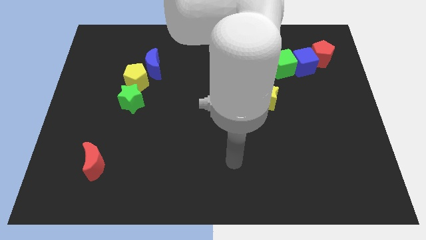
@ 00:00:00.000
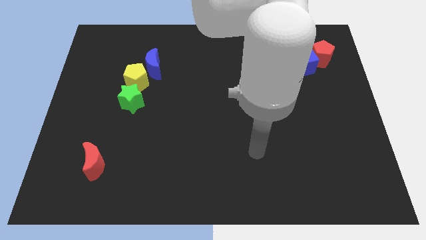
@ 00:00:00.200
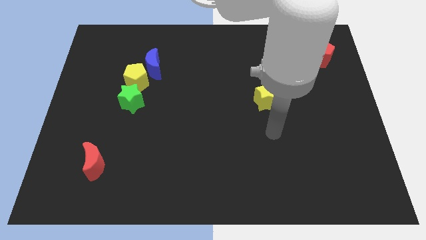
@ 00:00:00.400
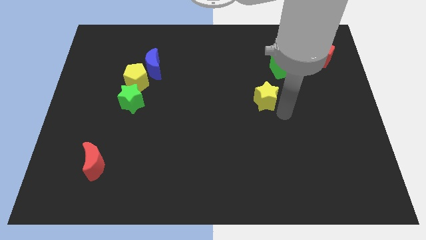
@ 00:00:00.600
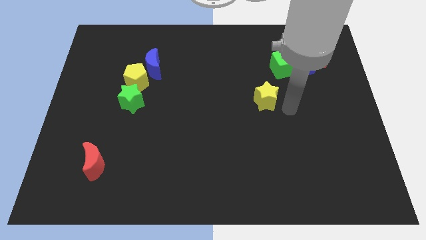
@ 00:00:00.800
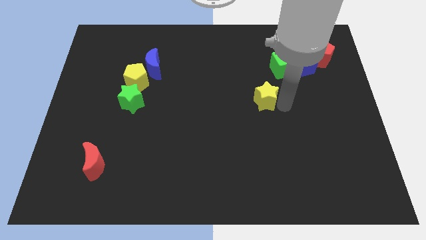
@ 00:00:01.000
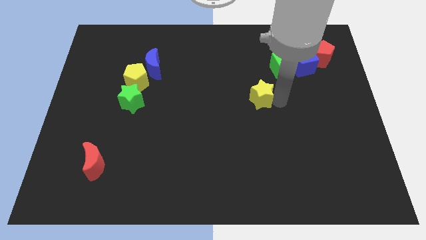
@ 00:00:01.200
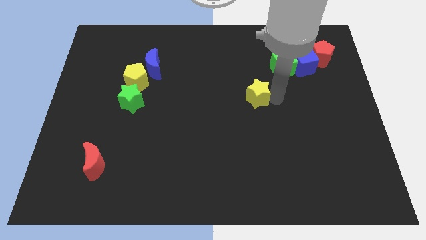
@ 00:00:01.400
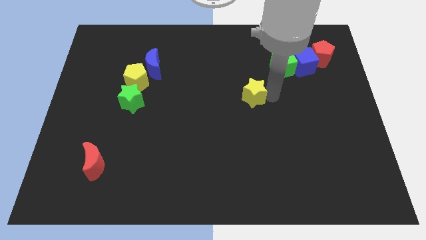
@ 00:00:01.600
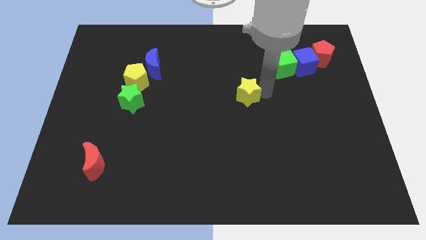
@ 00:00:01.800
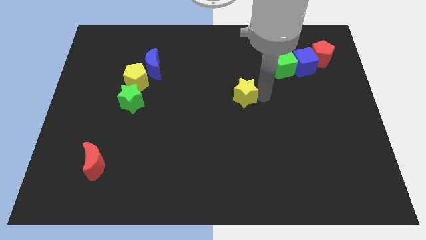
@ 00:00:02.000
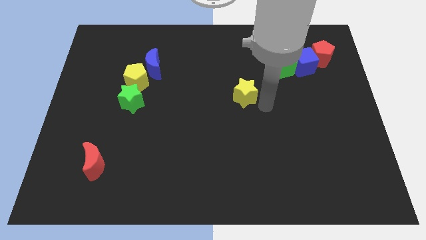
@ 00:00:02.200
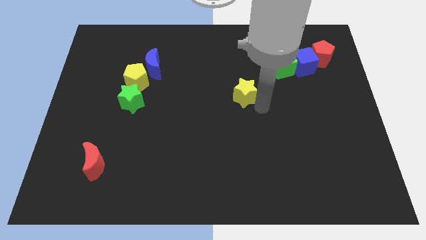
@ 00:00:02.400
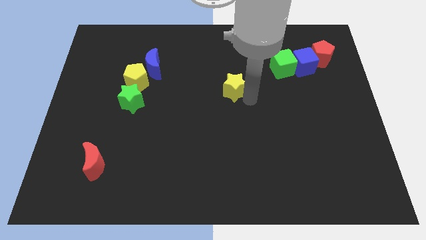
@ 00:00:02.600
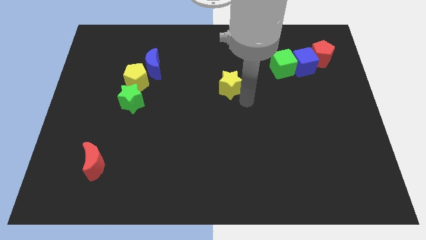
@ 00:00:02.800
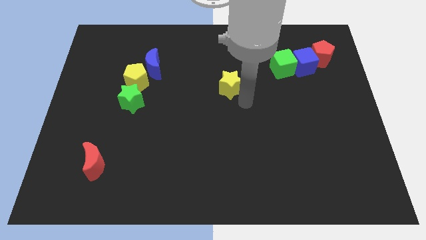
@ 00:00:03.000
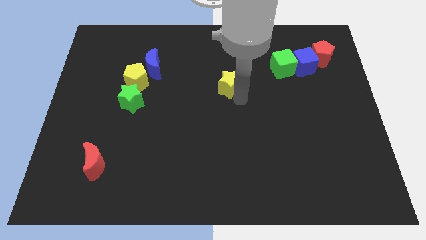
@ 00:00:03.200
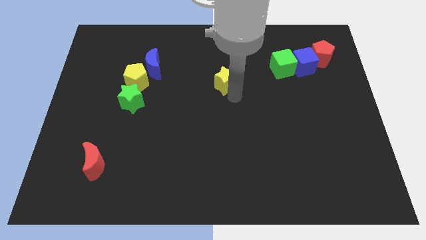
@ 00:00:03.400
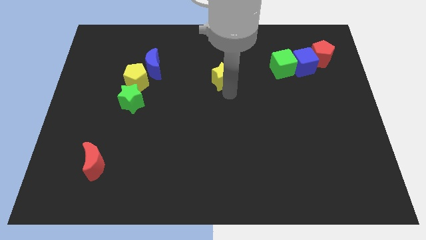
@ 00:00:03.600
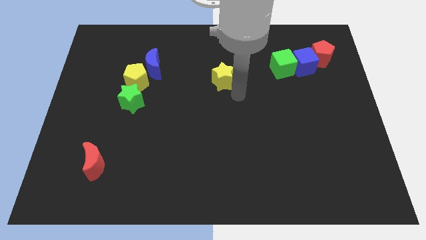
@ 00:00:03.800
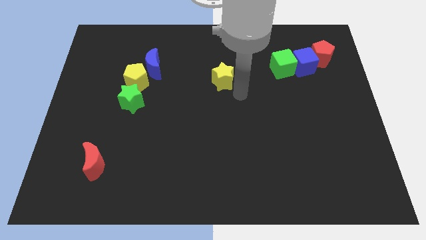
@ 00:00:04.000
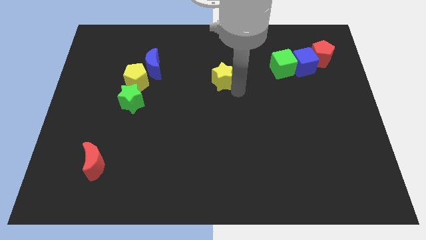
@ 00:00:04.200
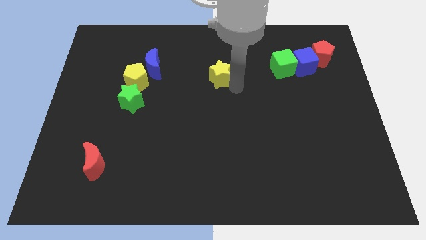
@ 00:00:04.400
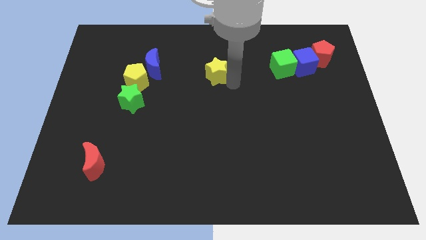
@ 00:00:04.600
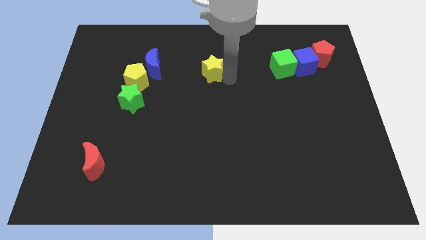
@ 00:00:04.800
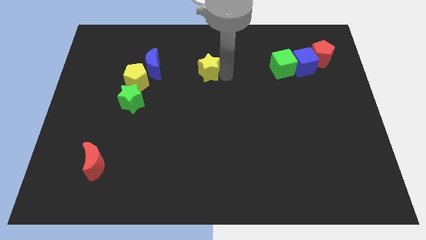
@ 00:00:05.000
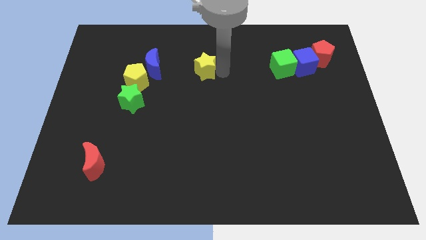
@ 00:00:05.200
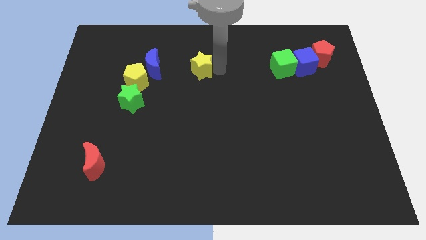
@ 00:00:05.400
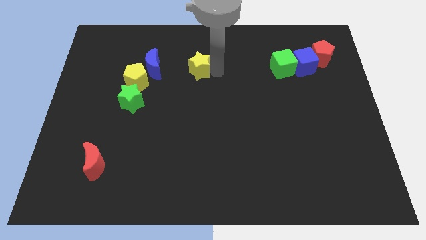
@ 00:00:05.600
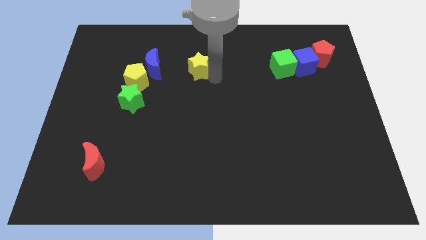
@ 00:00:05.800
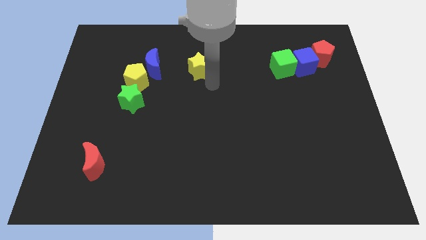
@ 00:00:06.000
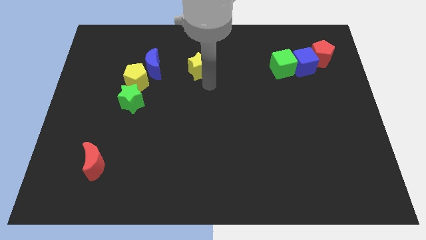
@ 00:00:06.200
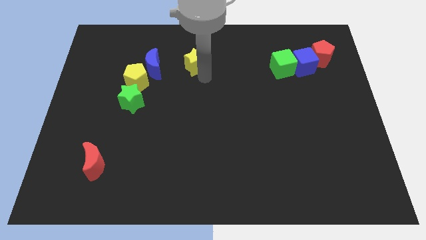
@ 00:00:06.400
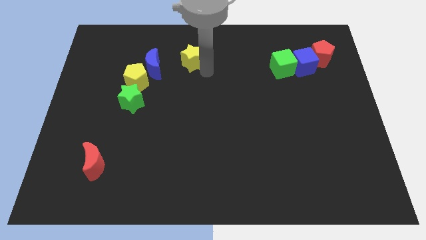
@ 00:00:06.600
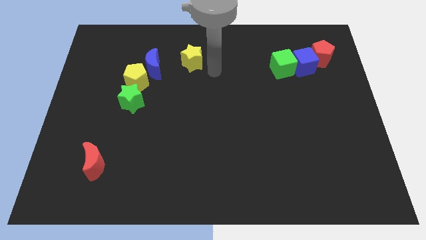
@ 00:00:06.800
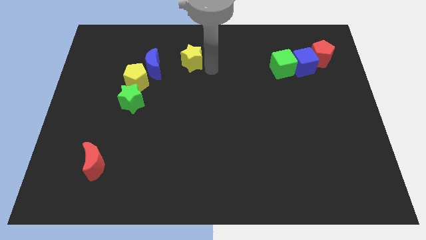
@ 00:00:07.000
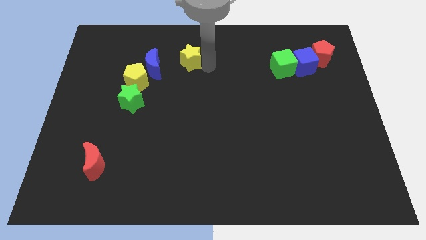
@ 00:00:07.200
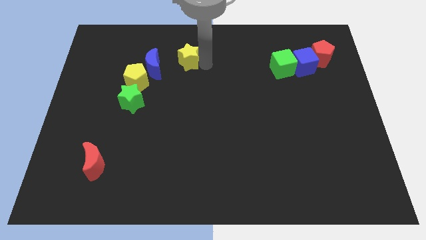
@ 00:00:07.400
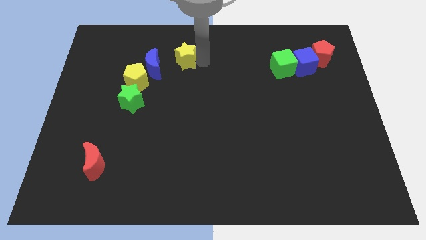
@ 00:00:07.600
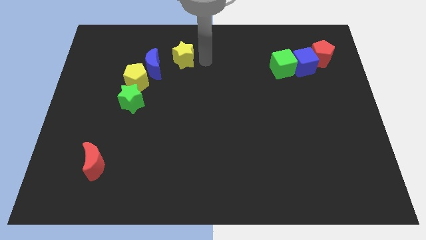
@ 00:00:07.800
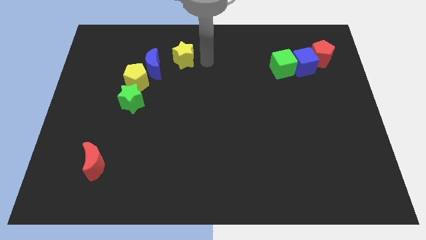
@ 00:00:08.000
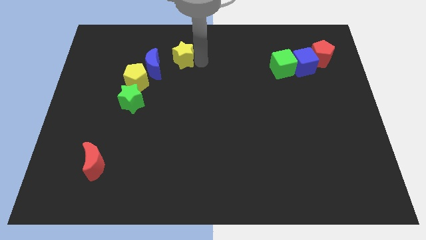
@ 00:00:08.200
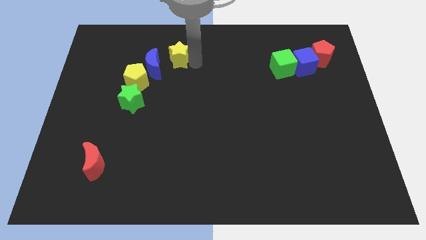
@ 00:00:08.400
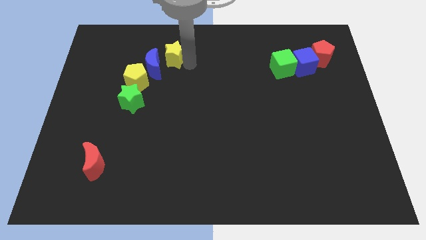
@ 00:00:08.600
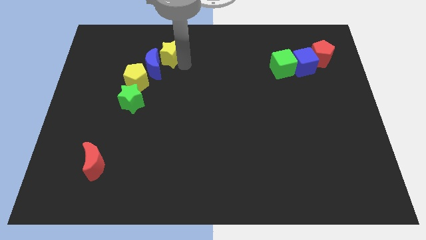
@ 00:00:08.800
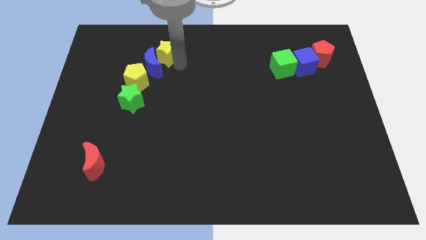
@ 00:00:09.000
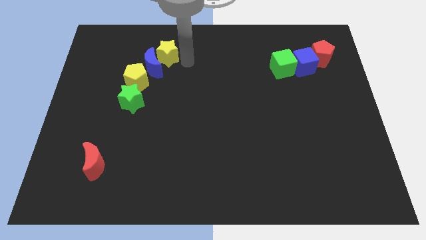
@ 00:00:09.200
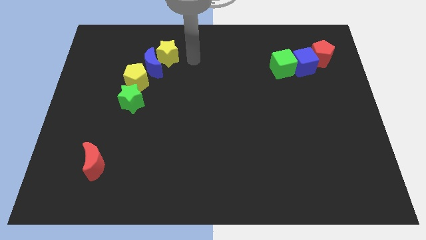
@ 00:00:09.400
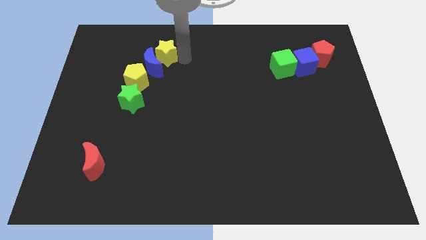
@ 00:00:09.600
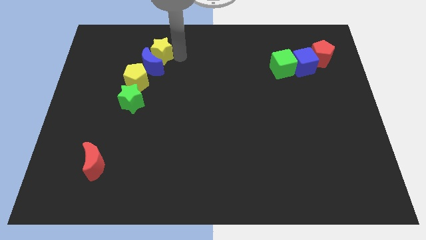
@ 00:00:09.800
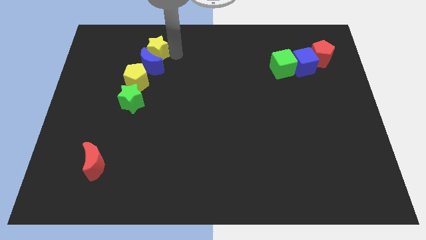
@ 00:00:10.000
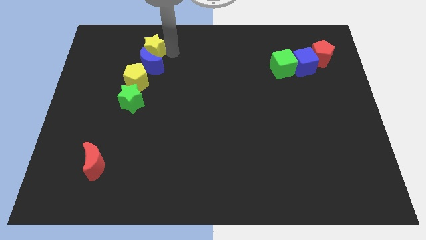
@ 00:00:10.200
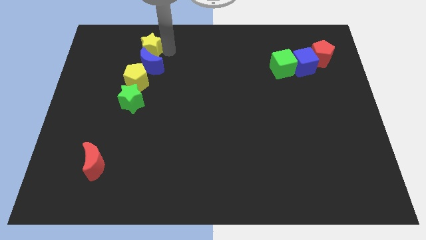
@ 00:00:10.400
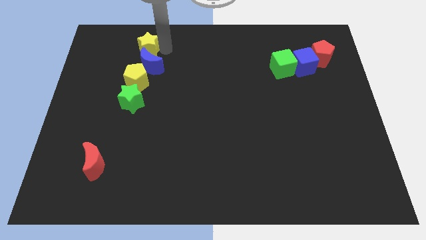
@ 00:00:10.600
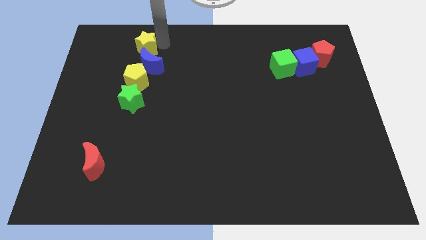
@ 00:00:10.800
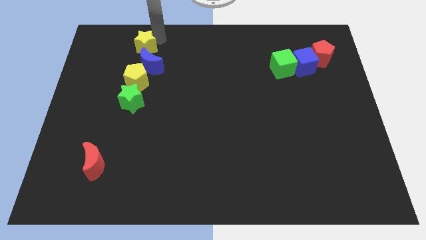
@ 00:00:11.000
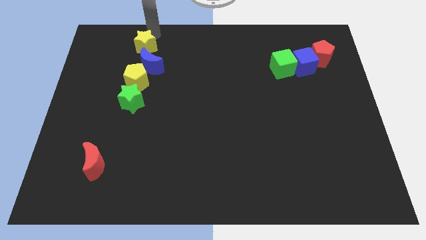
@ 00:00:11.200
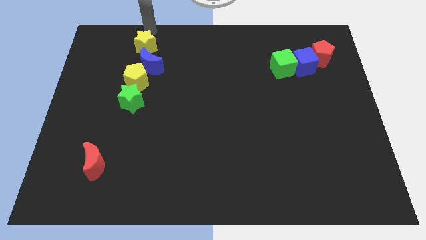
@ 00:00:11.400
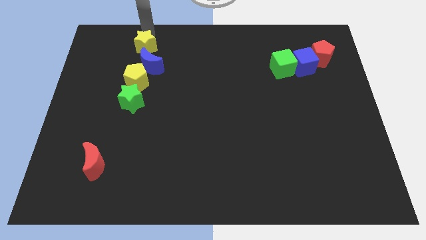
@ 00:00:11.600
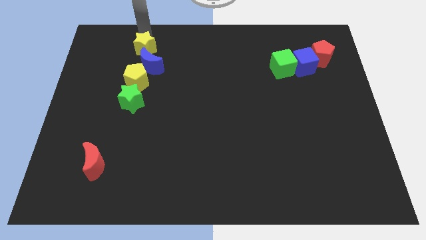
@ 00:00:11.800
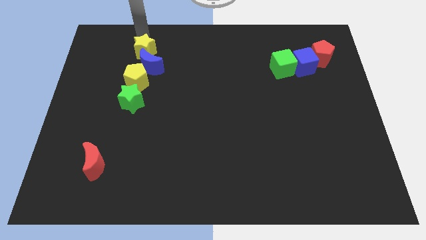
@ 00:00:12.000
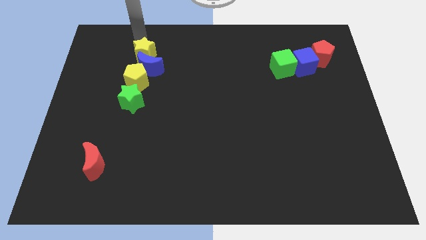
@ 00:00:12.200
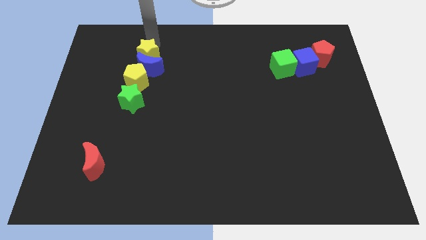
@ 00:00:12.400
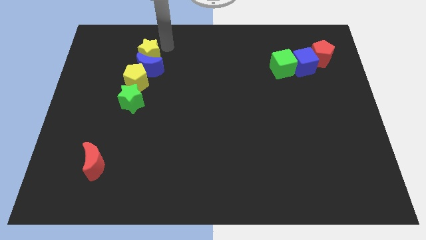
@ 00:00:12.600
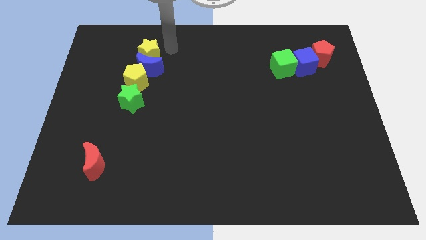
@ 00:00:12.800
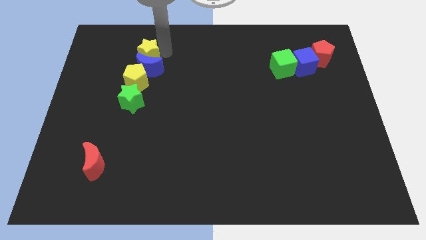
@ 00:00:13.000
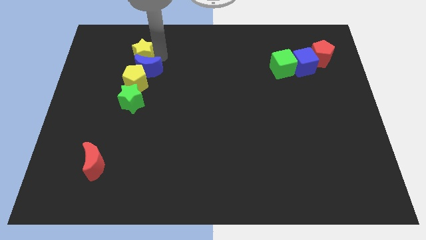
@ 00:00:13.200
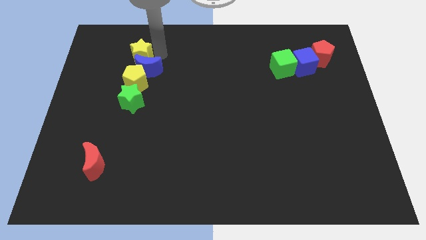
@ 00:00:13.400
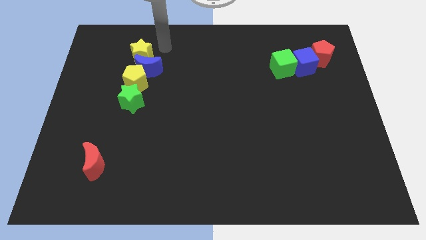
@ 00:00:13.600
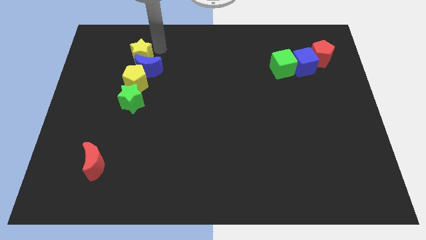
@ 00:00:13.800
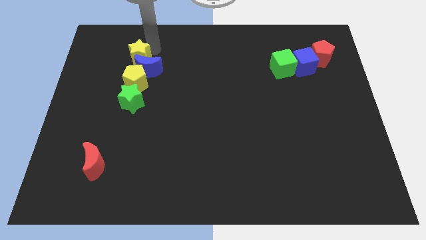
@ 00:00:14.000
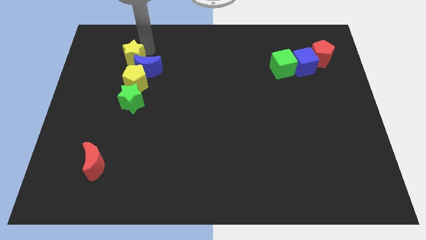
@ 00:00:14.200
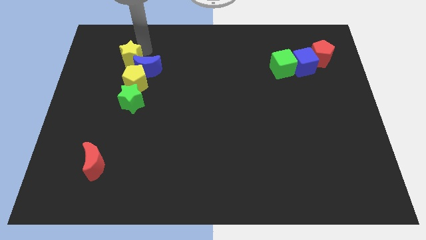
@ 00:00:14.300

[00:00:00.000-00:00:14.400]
move the yellow star to the top left of the yellow pentagon
